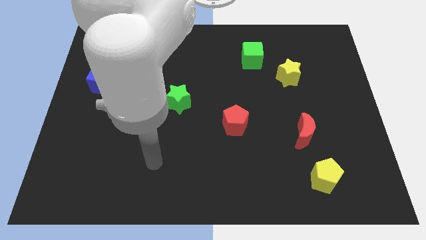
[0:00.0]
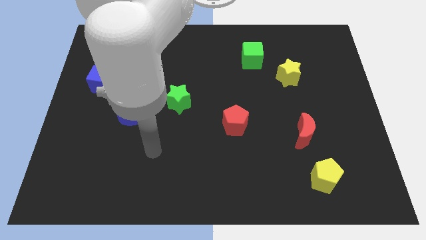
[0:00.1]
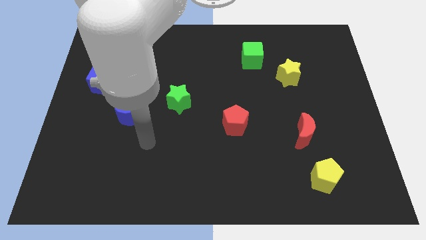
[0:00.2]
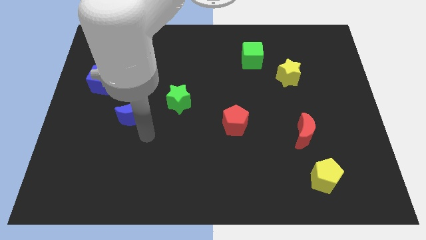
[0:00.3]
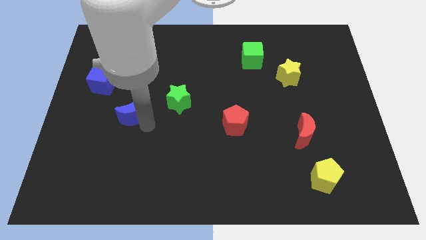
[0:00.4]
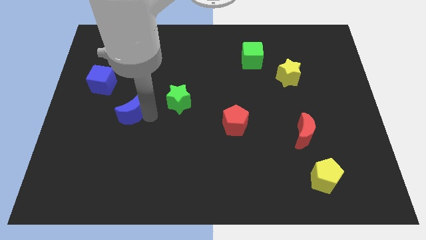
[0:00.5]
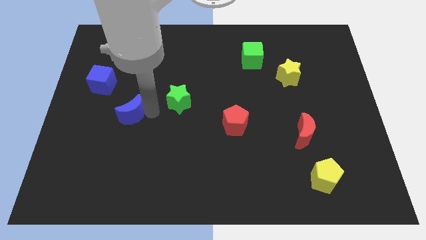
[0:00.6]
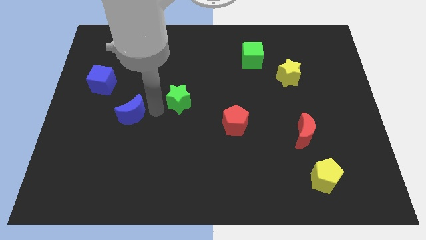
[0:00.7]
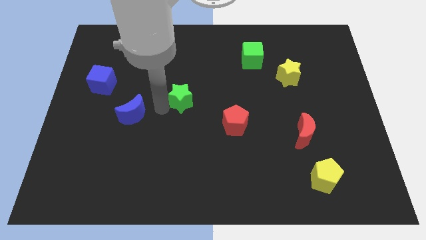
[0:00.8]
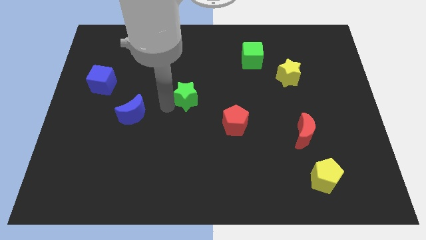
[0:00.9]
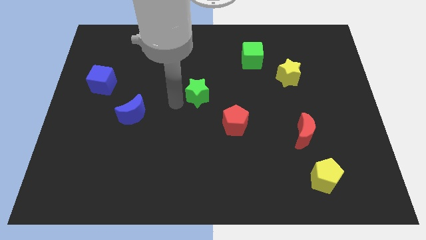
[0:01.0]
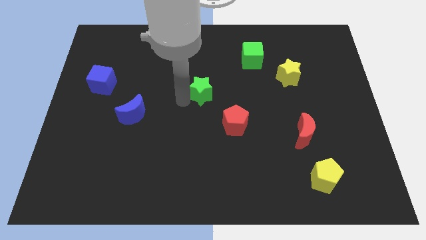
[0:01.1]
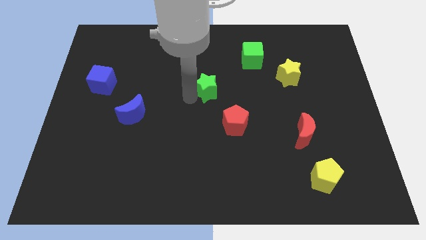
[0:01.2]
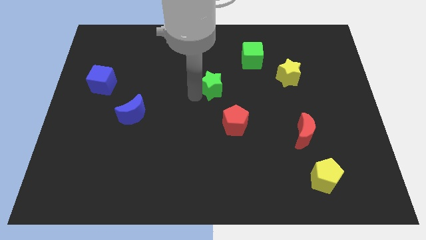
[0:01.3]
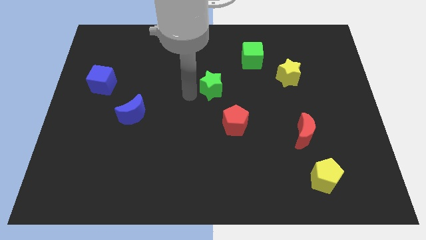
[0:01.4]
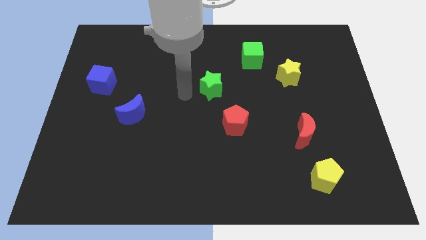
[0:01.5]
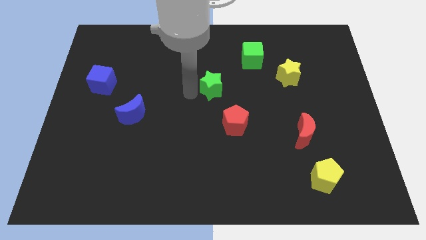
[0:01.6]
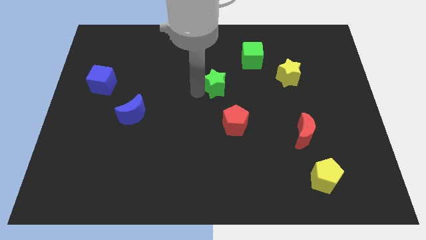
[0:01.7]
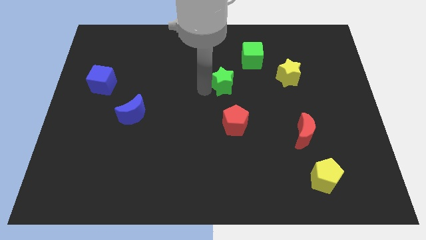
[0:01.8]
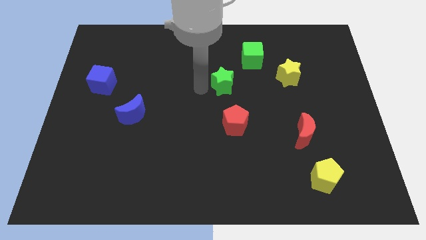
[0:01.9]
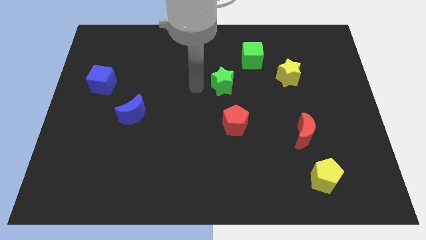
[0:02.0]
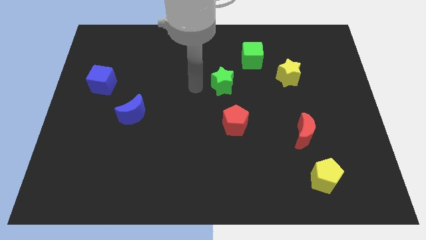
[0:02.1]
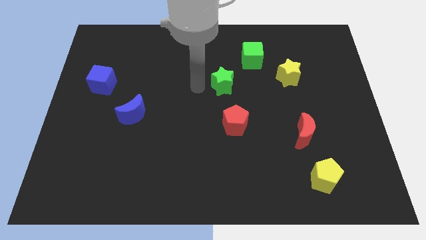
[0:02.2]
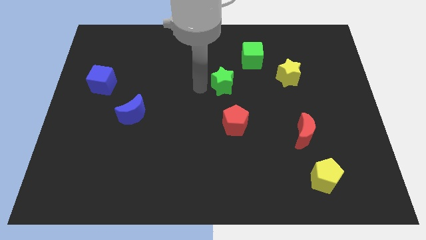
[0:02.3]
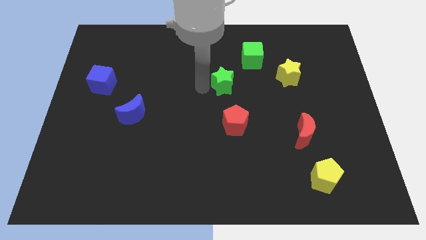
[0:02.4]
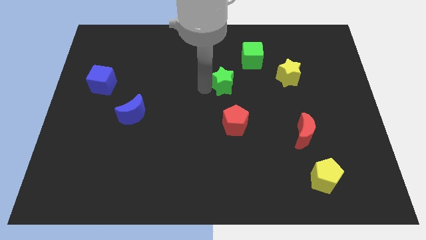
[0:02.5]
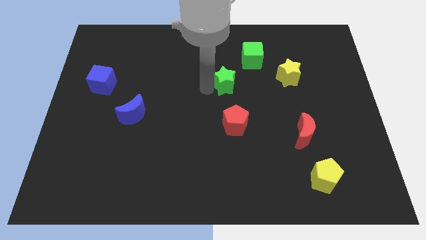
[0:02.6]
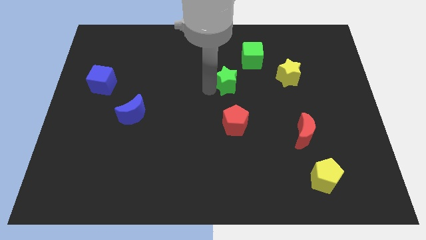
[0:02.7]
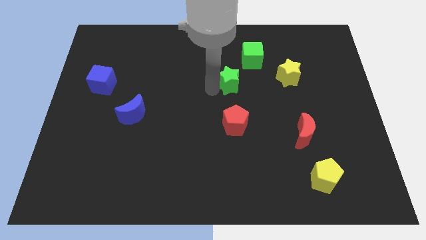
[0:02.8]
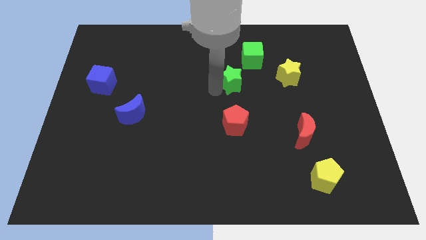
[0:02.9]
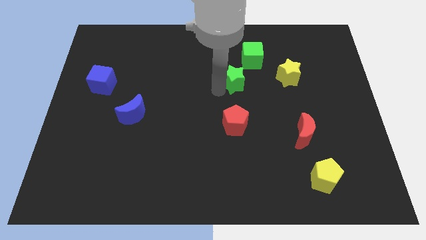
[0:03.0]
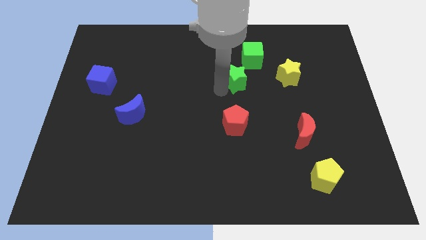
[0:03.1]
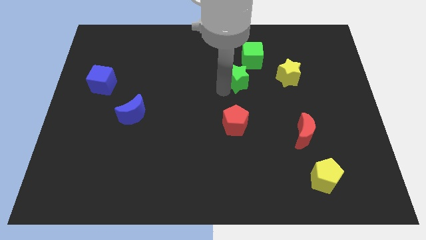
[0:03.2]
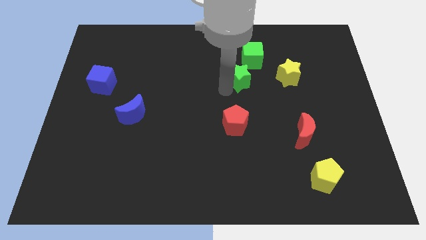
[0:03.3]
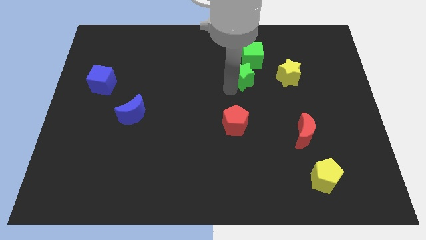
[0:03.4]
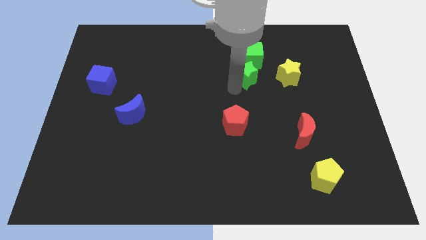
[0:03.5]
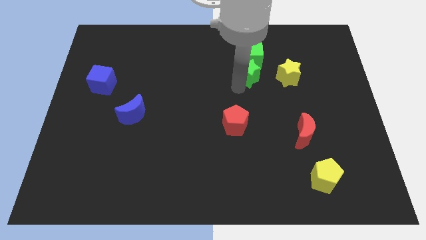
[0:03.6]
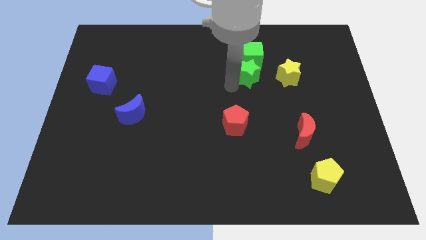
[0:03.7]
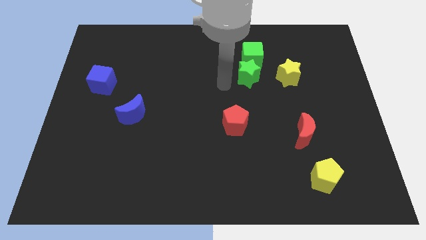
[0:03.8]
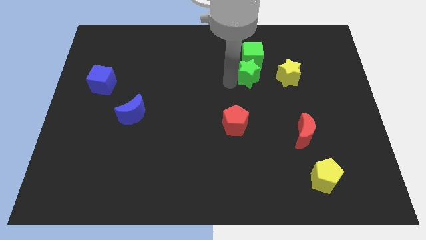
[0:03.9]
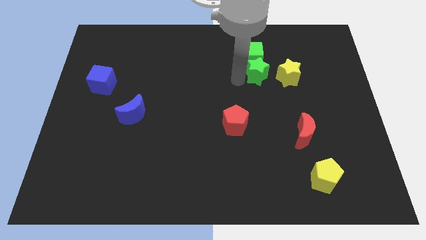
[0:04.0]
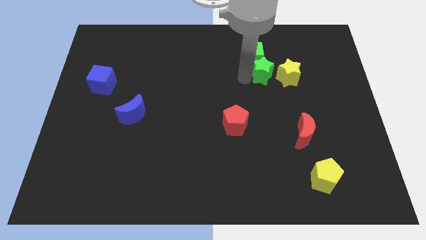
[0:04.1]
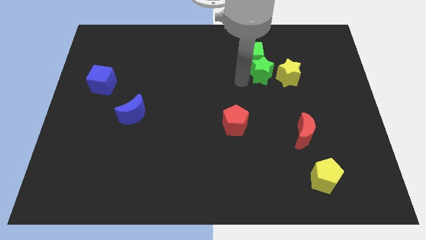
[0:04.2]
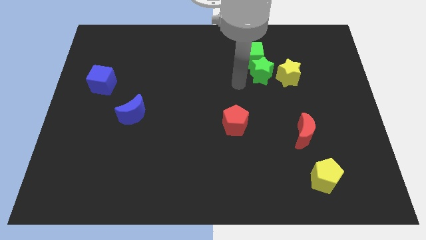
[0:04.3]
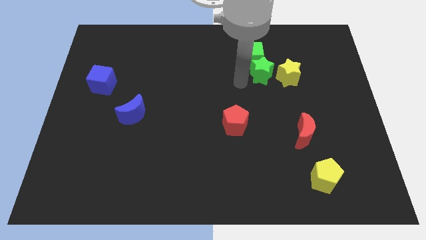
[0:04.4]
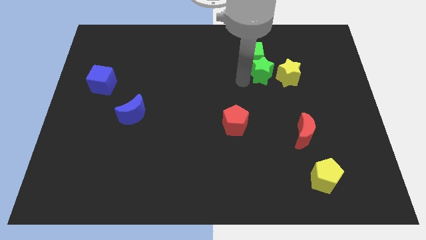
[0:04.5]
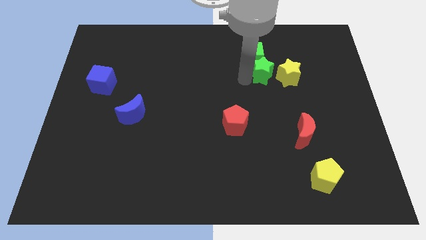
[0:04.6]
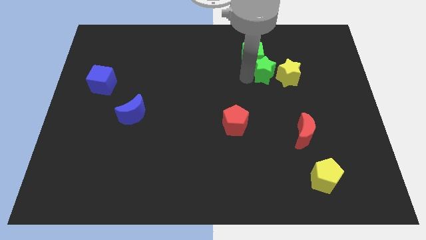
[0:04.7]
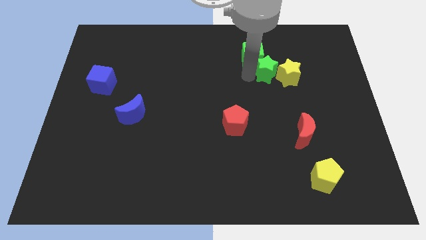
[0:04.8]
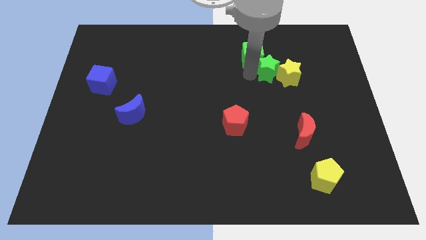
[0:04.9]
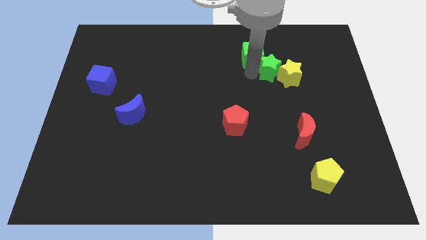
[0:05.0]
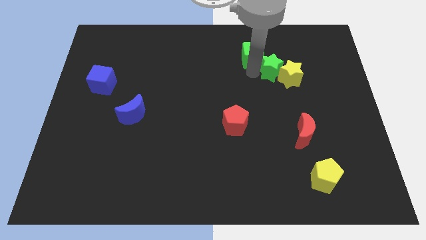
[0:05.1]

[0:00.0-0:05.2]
move the green star to the right of the green cube
